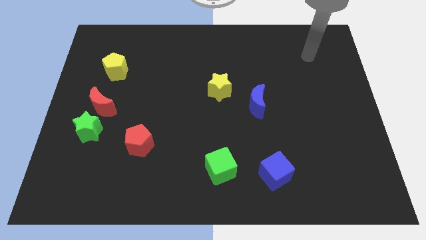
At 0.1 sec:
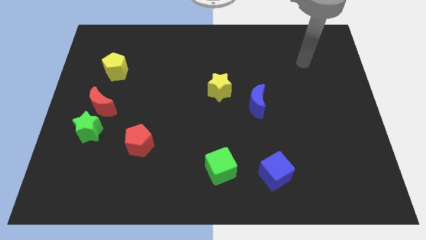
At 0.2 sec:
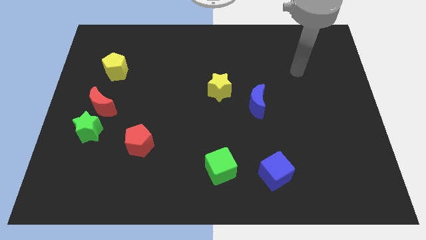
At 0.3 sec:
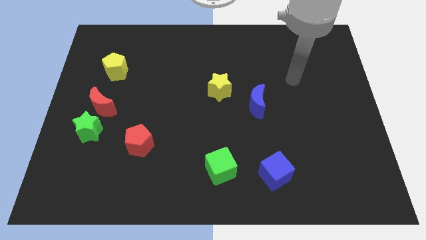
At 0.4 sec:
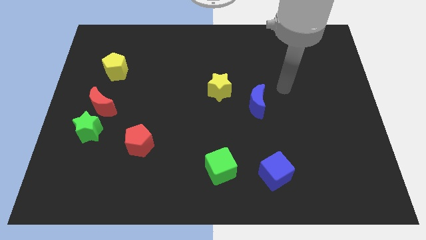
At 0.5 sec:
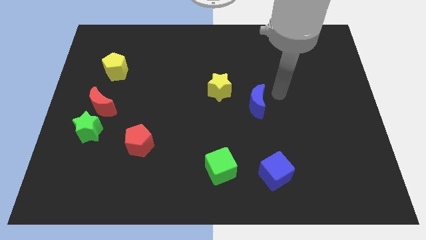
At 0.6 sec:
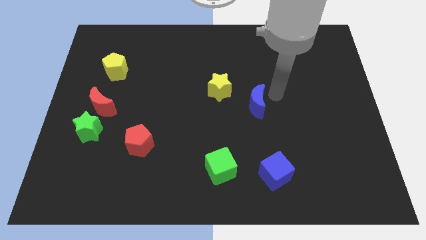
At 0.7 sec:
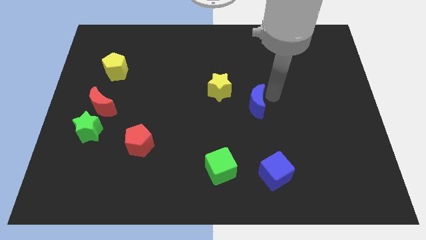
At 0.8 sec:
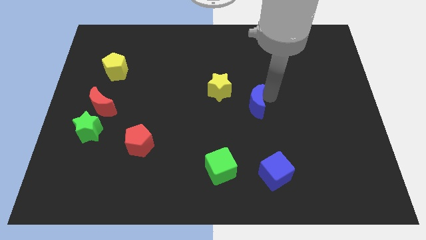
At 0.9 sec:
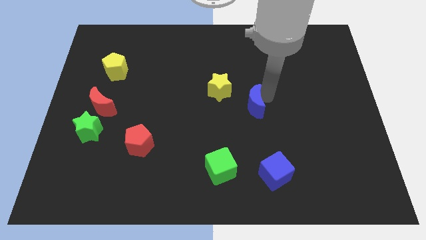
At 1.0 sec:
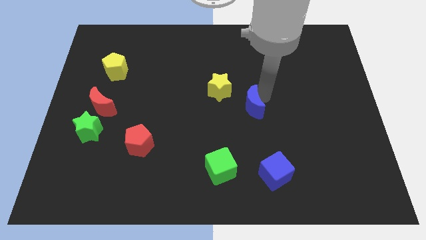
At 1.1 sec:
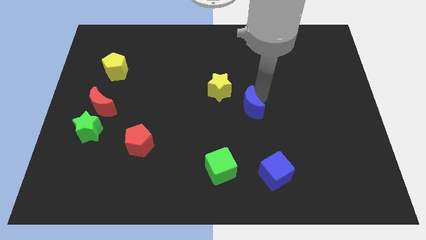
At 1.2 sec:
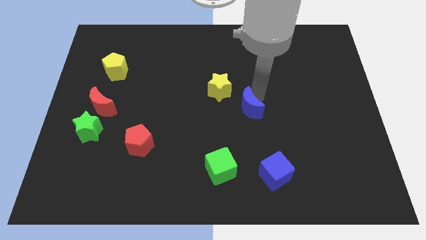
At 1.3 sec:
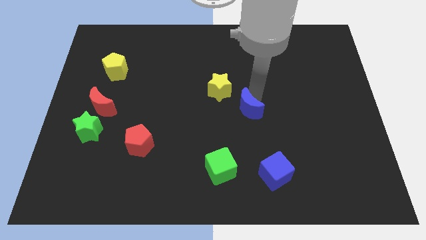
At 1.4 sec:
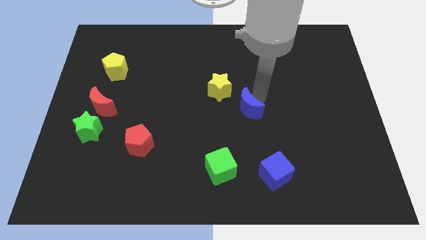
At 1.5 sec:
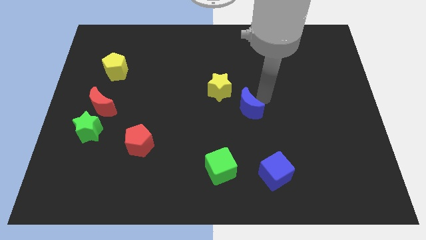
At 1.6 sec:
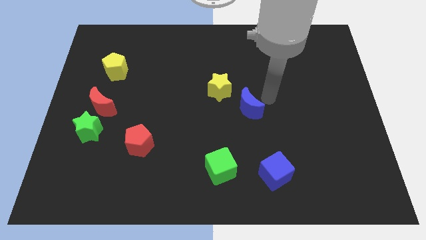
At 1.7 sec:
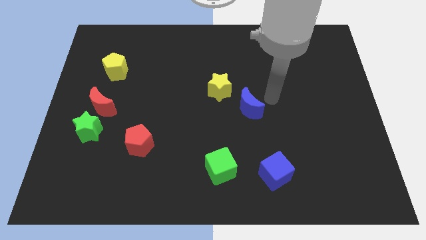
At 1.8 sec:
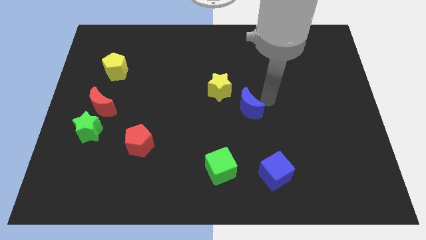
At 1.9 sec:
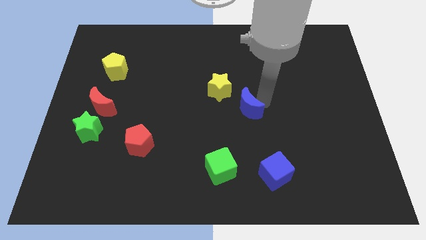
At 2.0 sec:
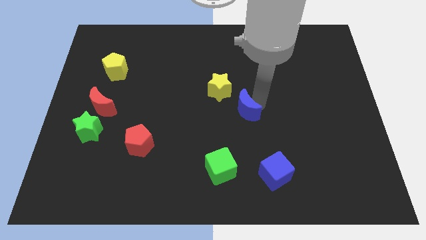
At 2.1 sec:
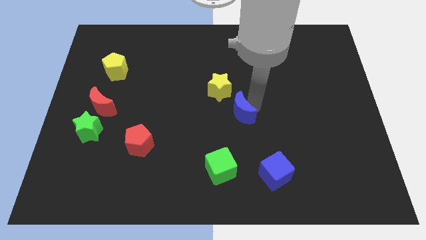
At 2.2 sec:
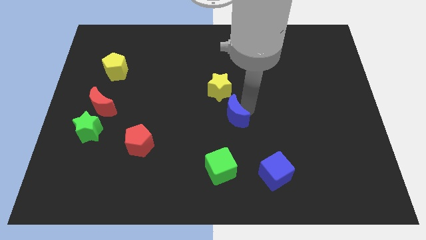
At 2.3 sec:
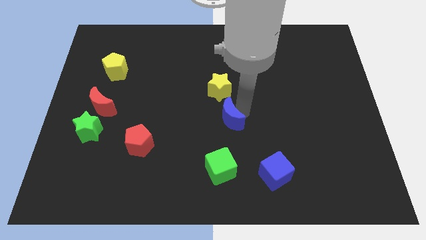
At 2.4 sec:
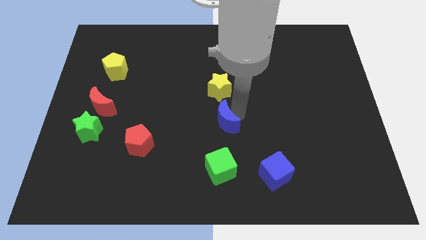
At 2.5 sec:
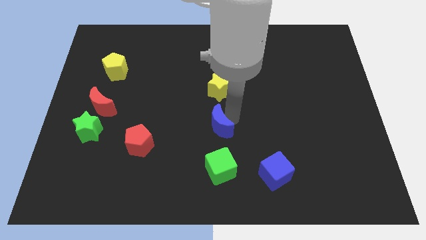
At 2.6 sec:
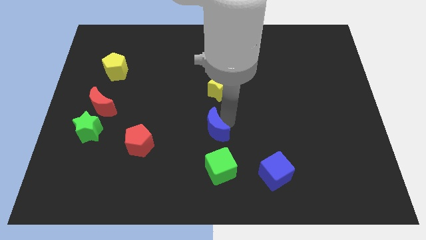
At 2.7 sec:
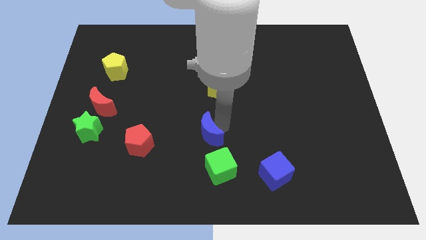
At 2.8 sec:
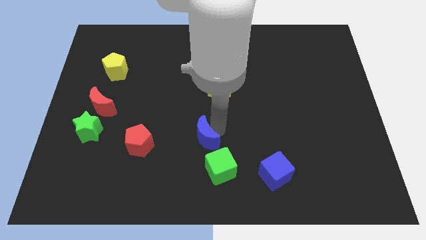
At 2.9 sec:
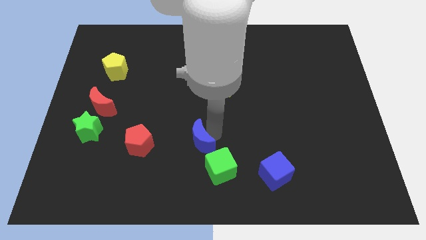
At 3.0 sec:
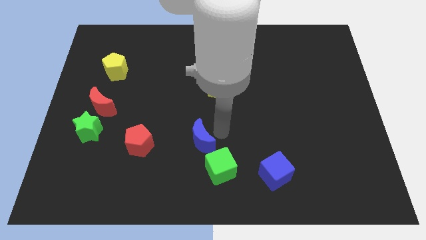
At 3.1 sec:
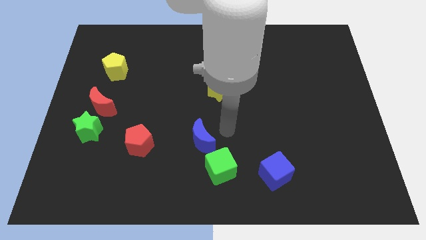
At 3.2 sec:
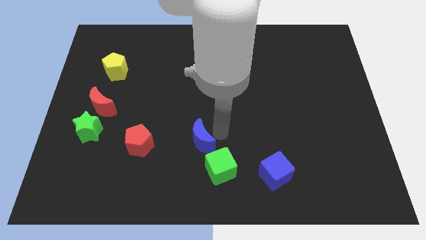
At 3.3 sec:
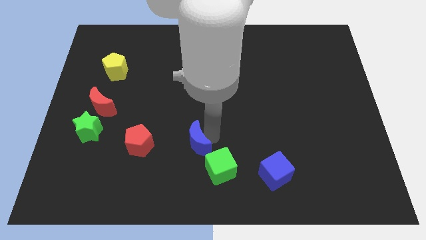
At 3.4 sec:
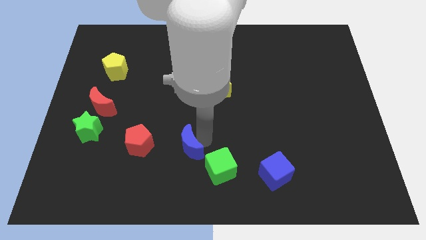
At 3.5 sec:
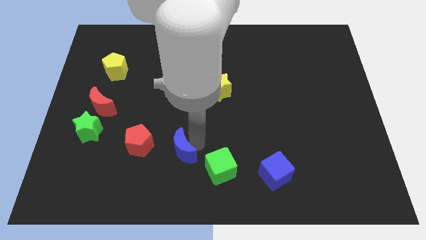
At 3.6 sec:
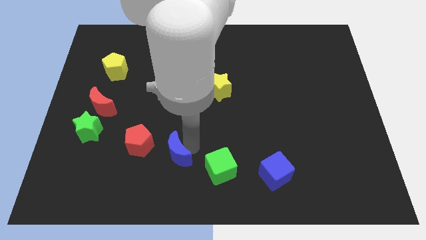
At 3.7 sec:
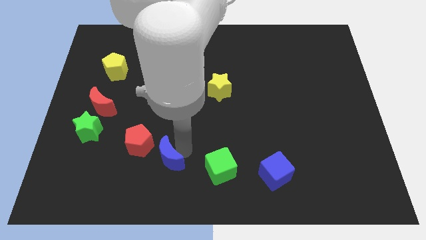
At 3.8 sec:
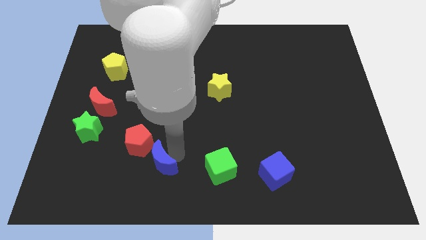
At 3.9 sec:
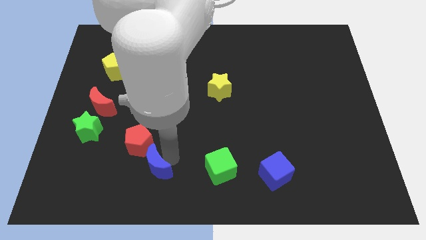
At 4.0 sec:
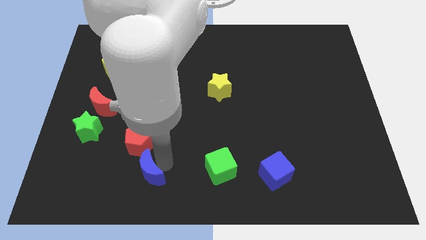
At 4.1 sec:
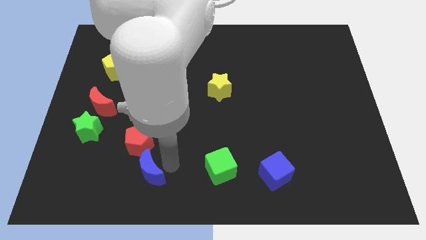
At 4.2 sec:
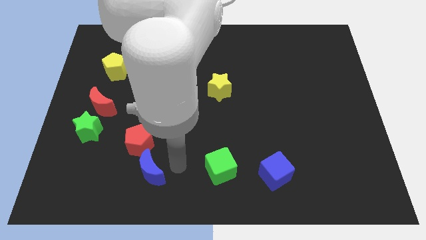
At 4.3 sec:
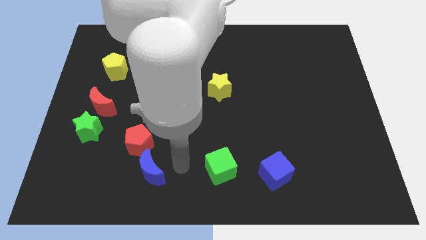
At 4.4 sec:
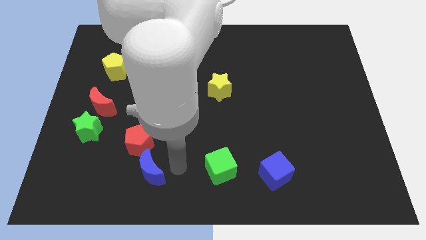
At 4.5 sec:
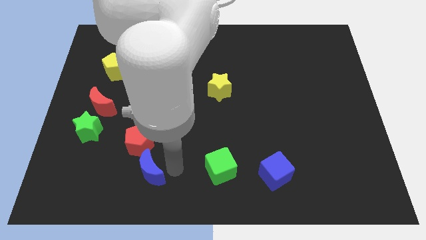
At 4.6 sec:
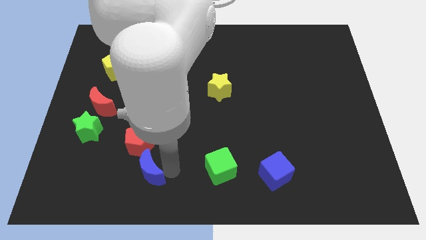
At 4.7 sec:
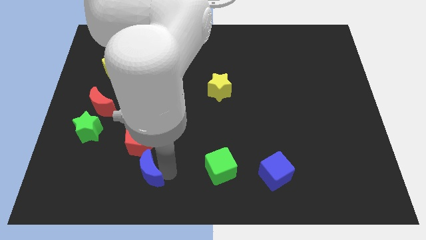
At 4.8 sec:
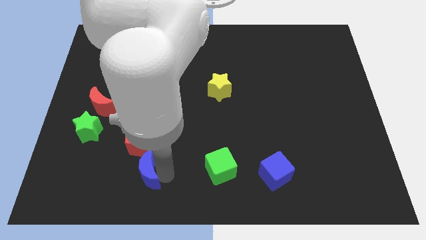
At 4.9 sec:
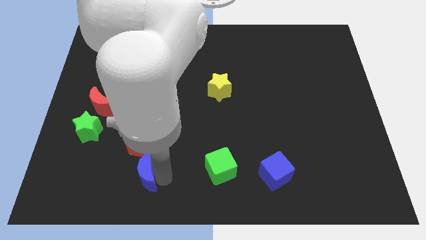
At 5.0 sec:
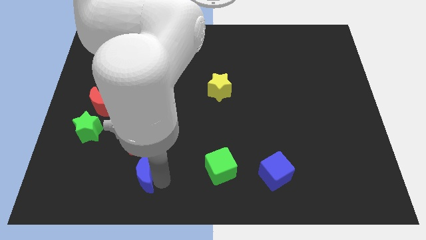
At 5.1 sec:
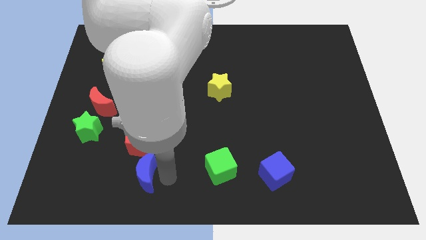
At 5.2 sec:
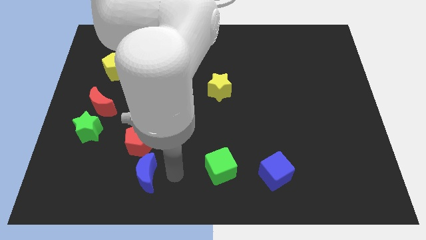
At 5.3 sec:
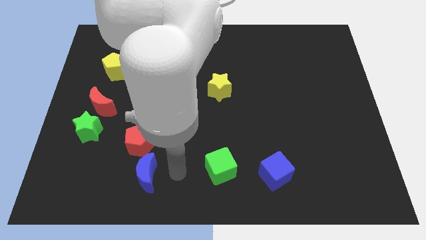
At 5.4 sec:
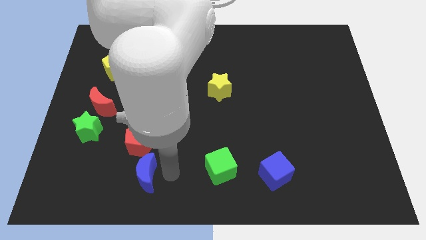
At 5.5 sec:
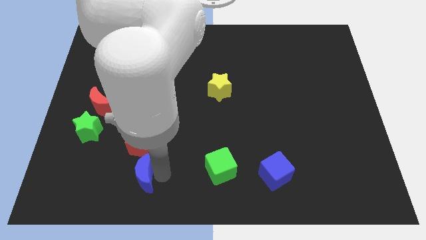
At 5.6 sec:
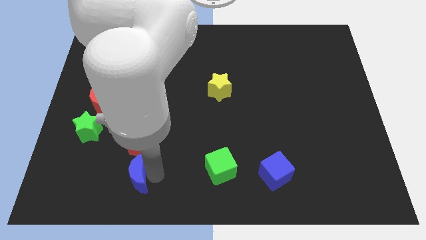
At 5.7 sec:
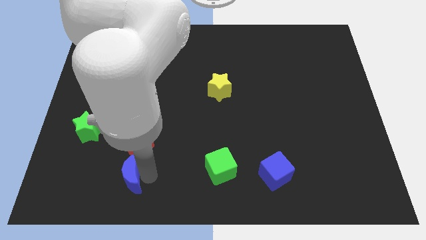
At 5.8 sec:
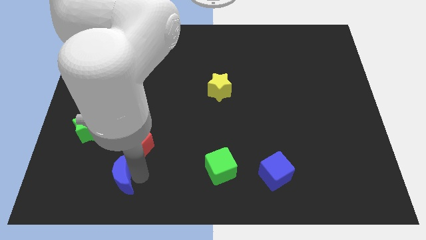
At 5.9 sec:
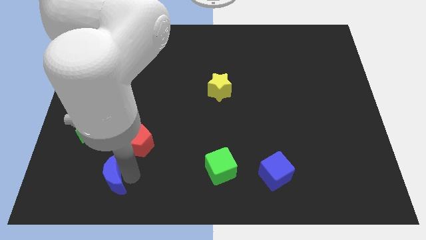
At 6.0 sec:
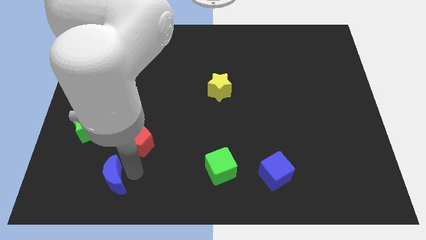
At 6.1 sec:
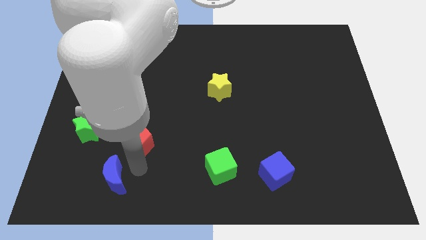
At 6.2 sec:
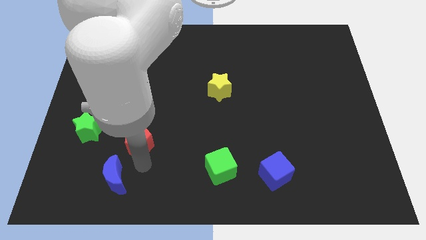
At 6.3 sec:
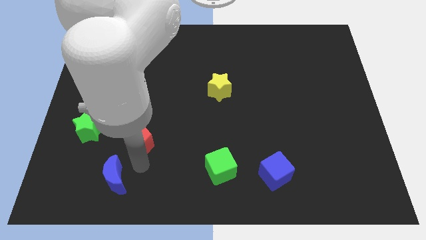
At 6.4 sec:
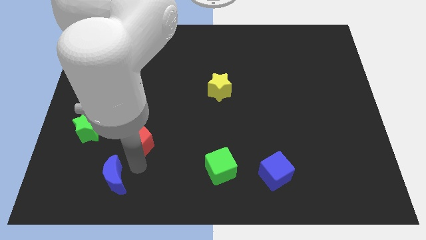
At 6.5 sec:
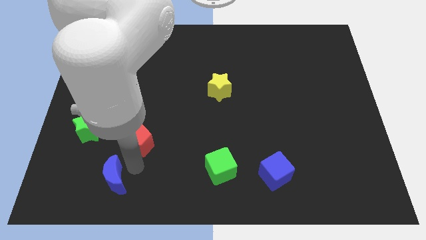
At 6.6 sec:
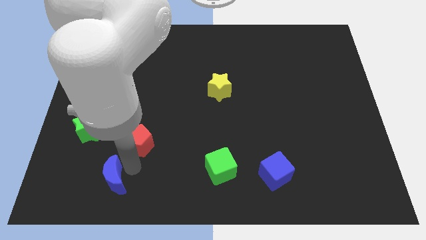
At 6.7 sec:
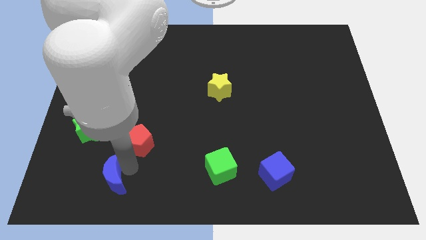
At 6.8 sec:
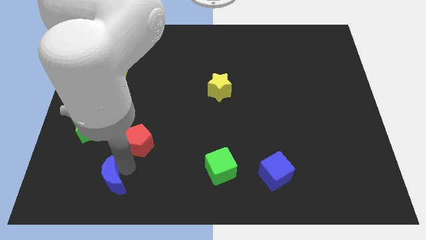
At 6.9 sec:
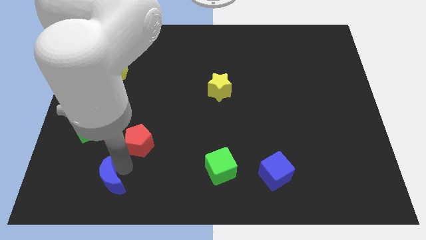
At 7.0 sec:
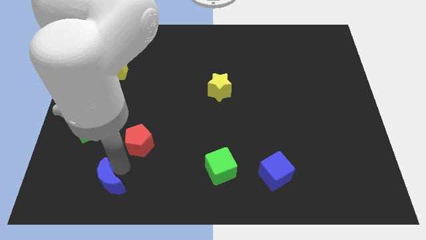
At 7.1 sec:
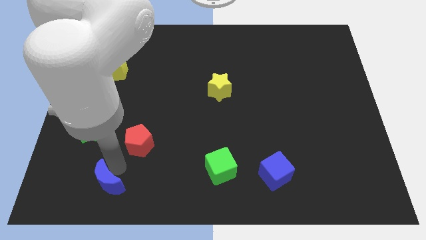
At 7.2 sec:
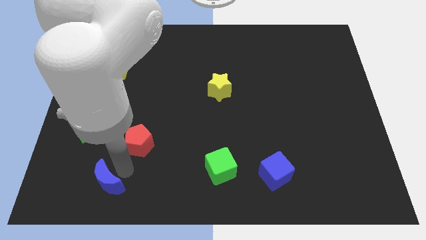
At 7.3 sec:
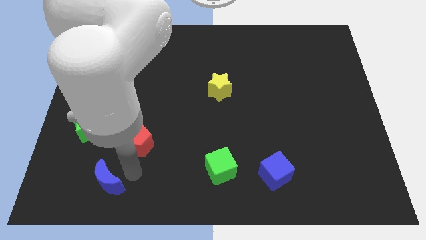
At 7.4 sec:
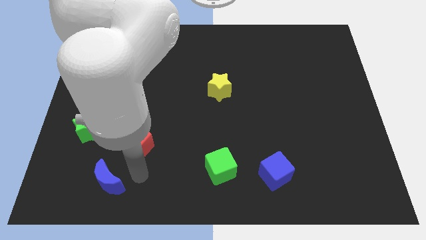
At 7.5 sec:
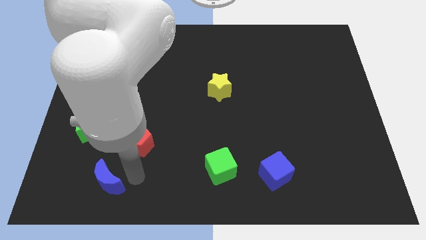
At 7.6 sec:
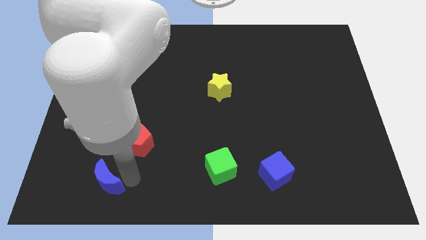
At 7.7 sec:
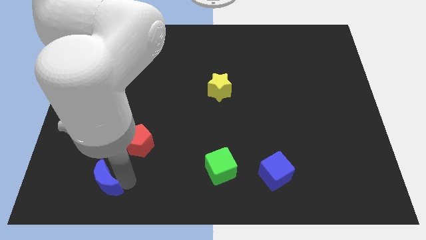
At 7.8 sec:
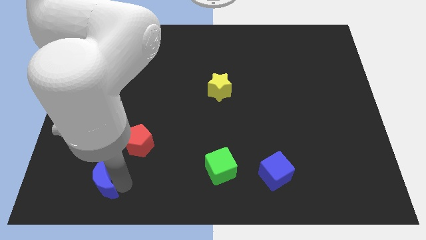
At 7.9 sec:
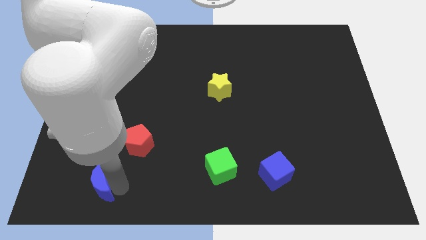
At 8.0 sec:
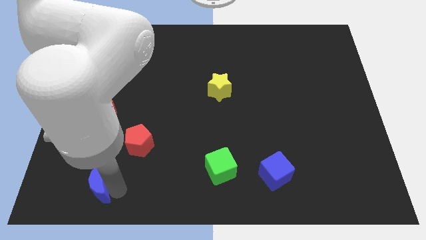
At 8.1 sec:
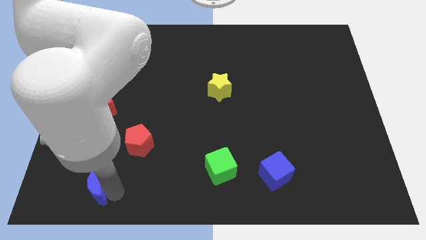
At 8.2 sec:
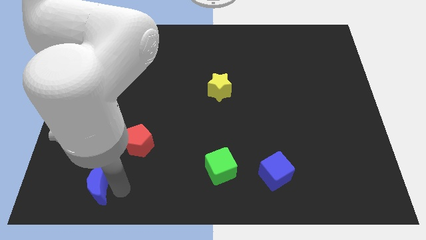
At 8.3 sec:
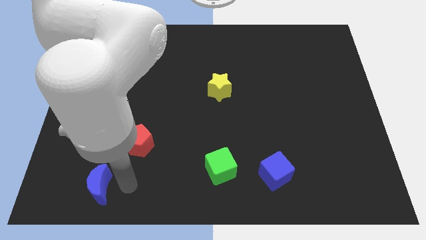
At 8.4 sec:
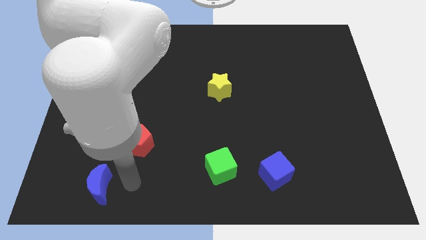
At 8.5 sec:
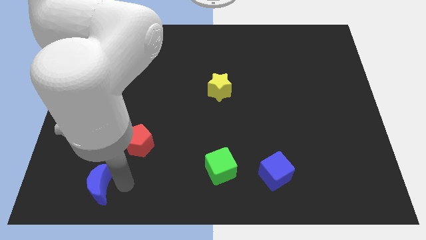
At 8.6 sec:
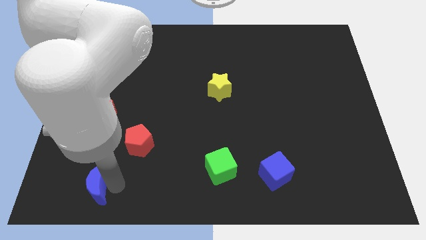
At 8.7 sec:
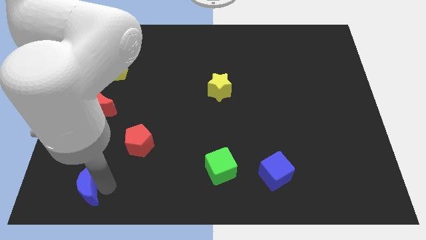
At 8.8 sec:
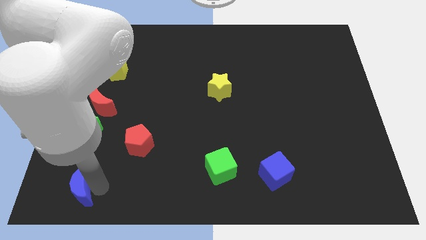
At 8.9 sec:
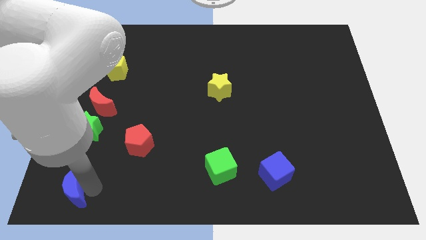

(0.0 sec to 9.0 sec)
move the blue moon to the bottom left of the board
